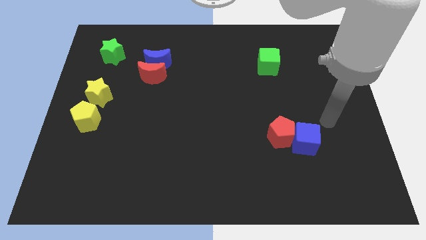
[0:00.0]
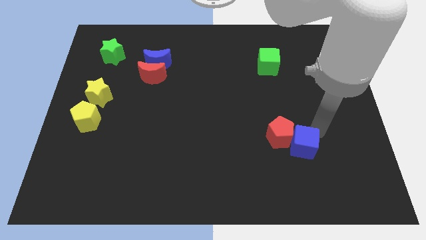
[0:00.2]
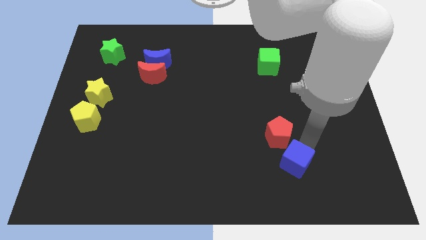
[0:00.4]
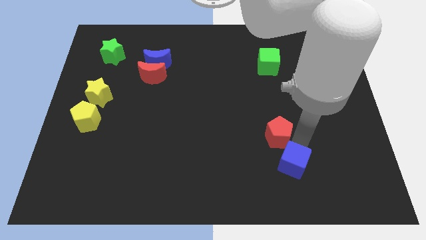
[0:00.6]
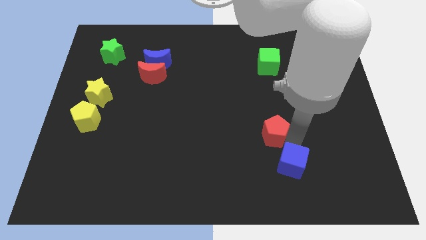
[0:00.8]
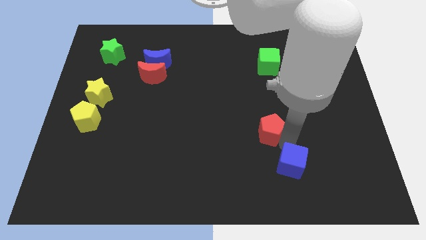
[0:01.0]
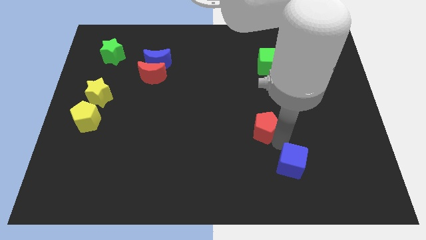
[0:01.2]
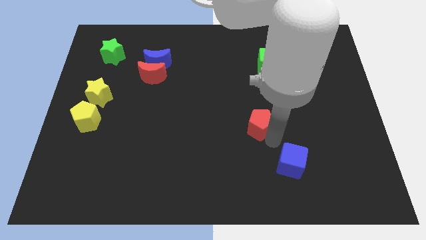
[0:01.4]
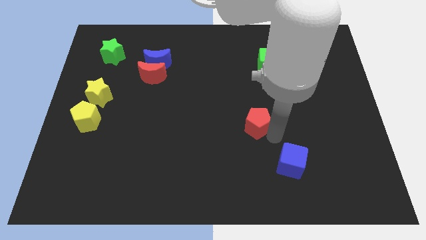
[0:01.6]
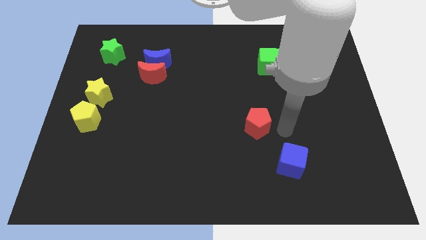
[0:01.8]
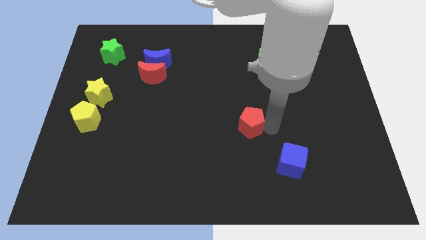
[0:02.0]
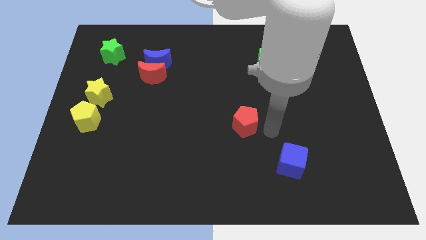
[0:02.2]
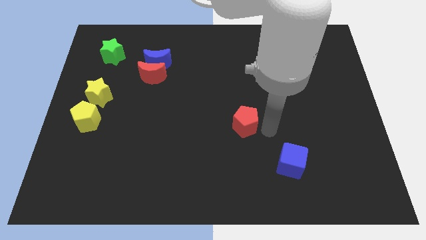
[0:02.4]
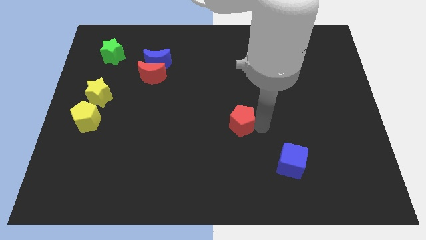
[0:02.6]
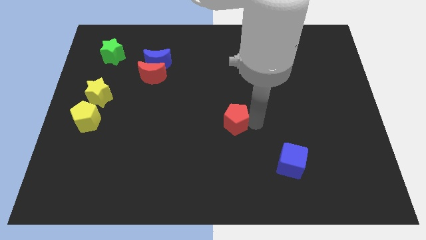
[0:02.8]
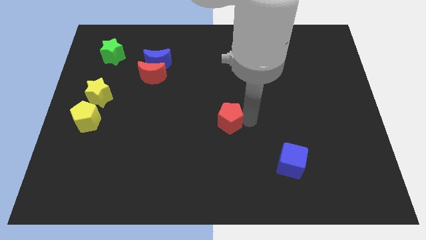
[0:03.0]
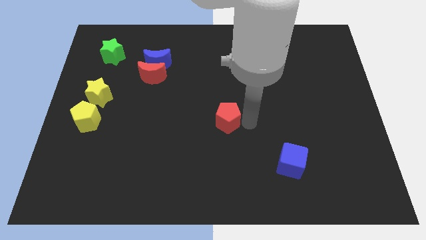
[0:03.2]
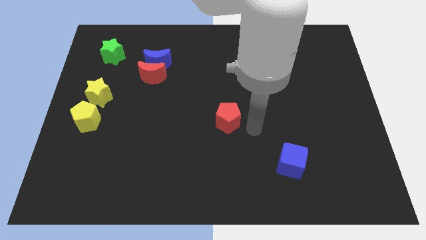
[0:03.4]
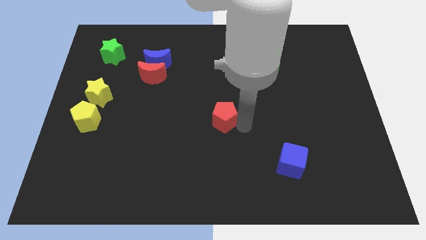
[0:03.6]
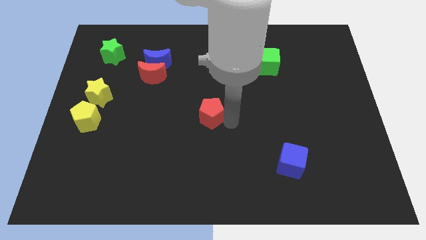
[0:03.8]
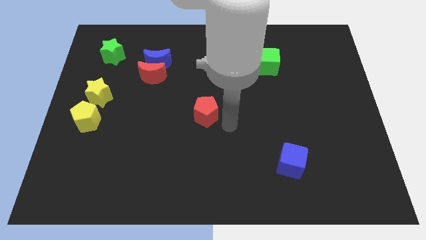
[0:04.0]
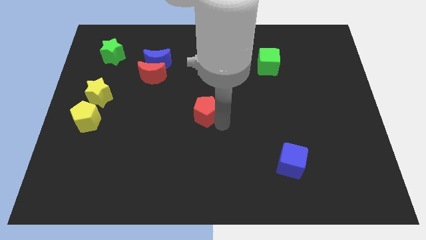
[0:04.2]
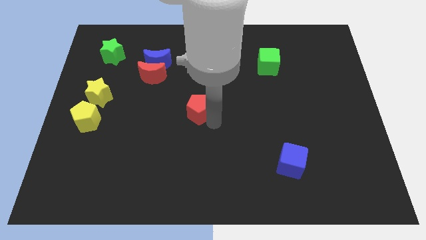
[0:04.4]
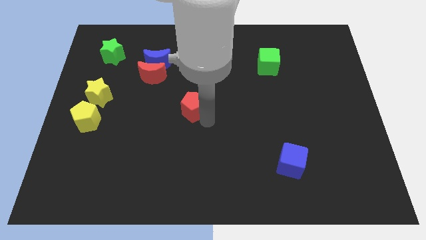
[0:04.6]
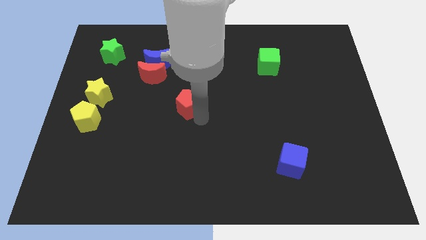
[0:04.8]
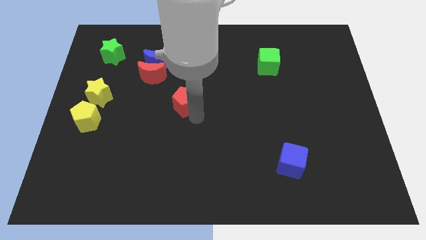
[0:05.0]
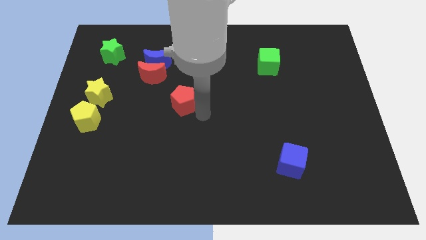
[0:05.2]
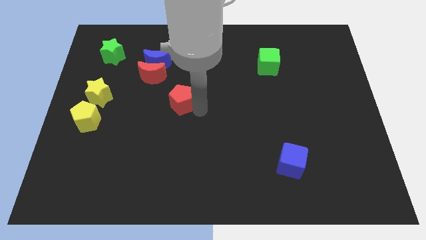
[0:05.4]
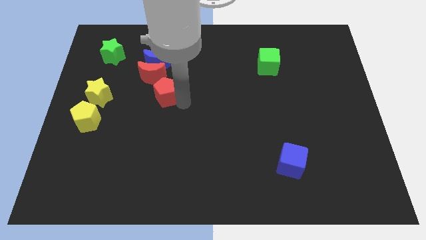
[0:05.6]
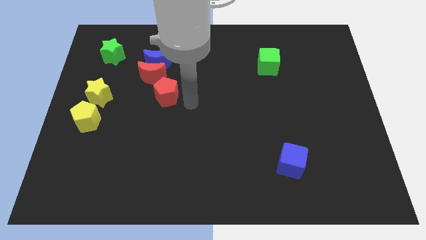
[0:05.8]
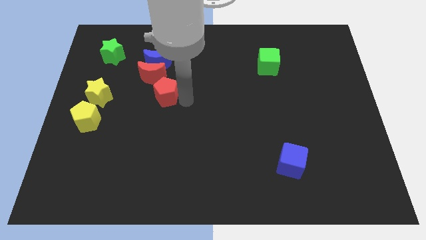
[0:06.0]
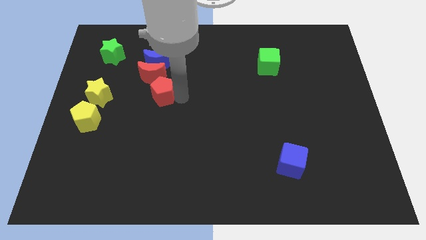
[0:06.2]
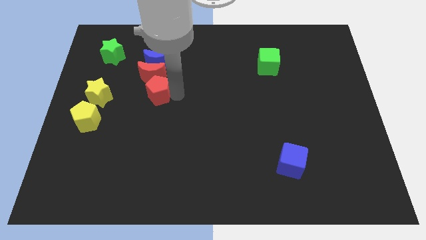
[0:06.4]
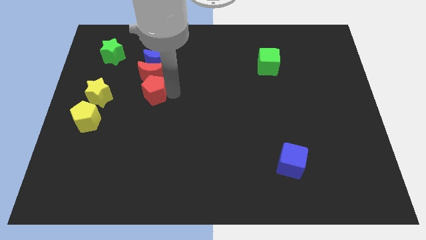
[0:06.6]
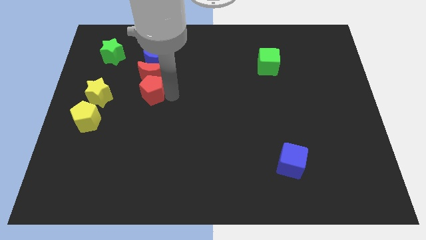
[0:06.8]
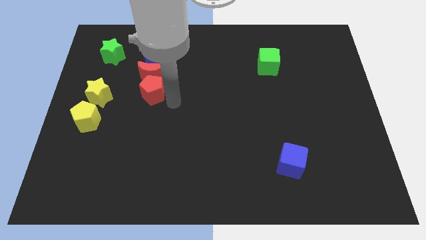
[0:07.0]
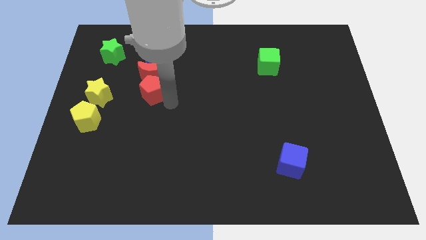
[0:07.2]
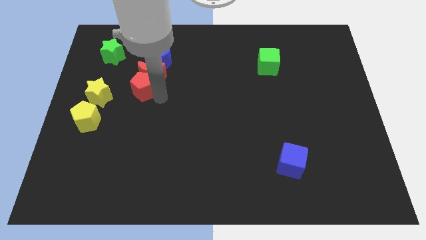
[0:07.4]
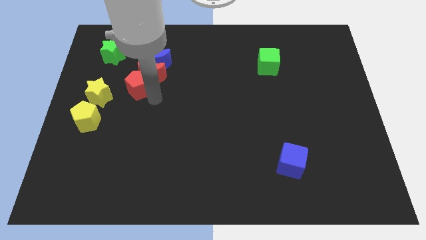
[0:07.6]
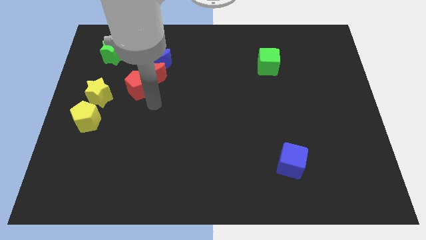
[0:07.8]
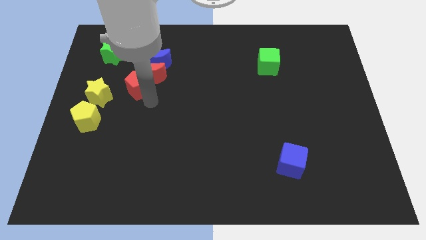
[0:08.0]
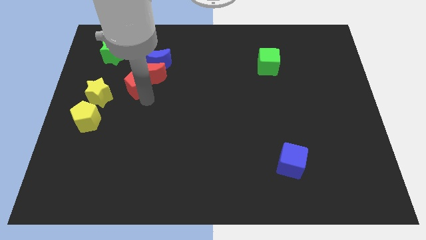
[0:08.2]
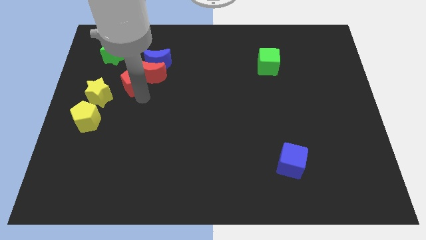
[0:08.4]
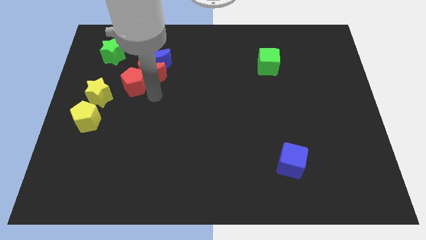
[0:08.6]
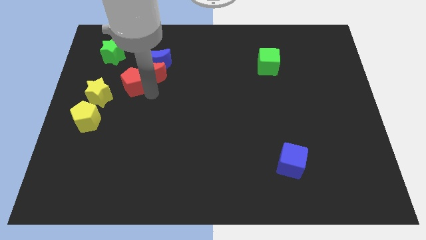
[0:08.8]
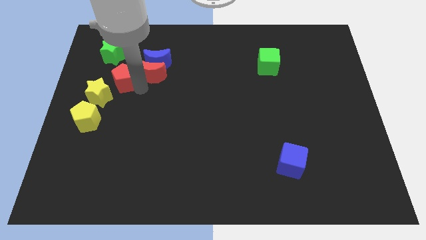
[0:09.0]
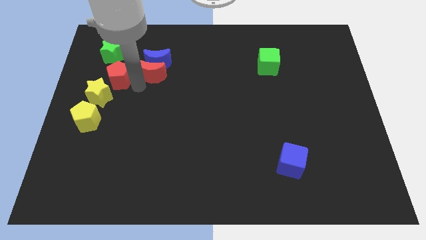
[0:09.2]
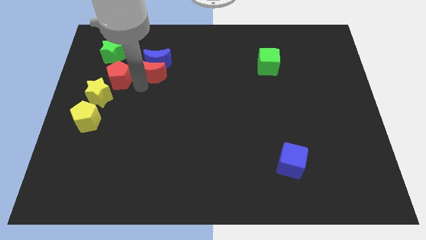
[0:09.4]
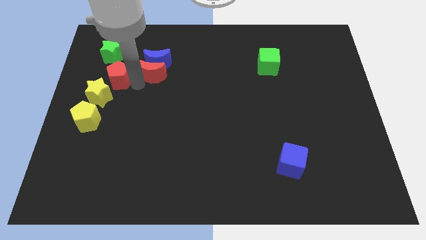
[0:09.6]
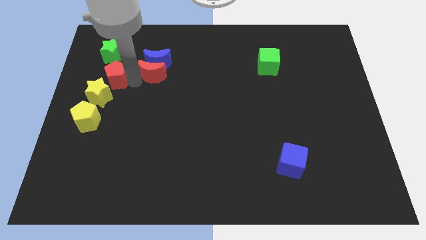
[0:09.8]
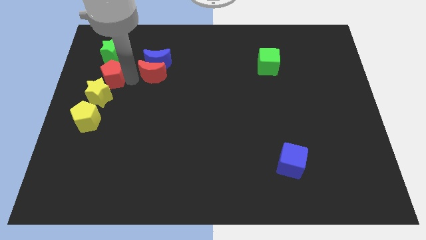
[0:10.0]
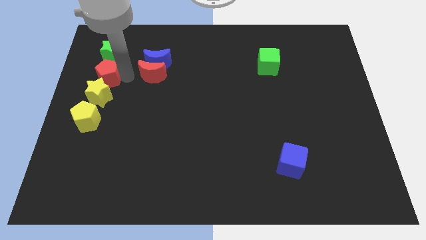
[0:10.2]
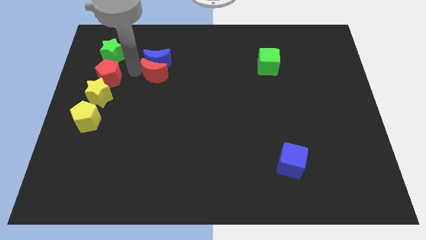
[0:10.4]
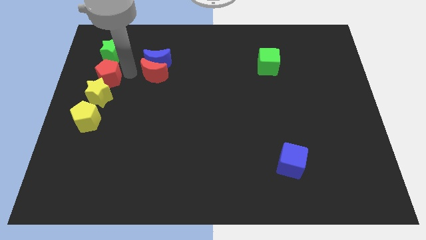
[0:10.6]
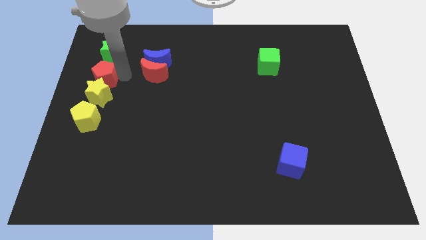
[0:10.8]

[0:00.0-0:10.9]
move the red pentagon to the left side

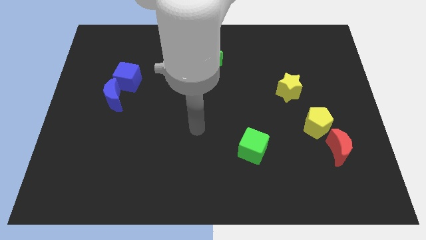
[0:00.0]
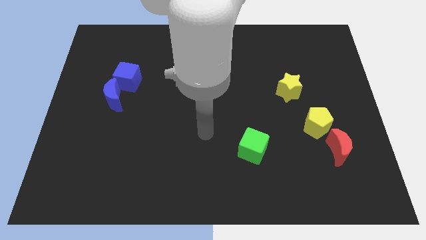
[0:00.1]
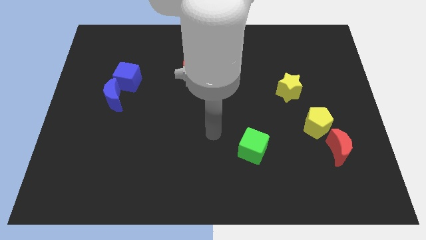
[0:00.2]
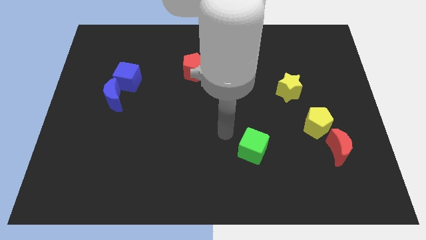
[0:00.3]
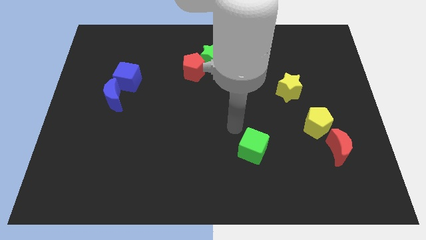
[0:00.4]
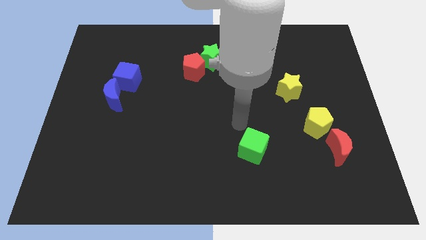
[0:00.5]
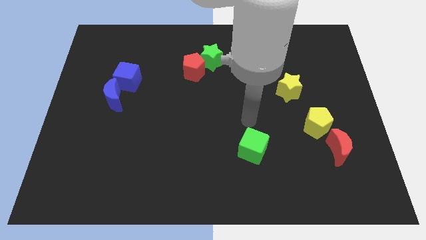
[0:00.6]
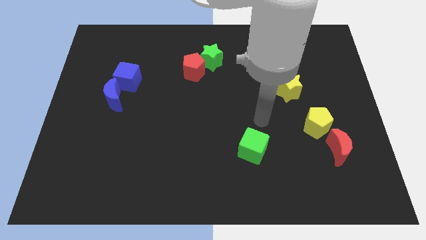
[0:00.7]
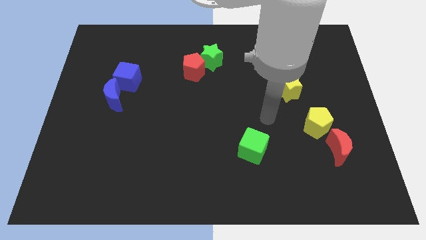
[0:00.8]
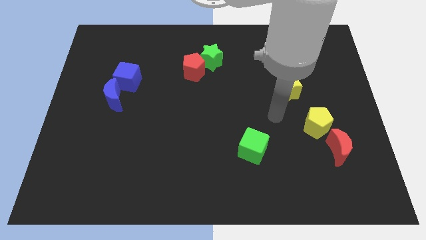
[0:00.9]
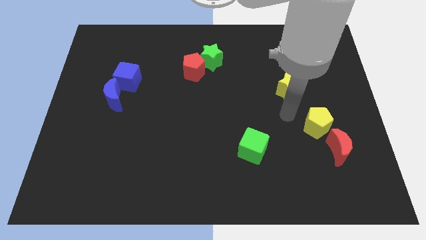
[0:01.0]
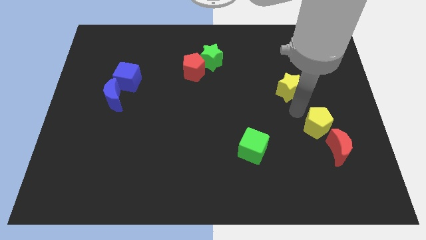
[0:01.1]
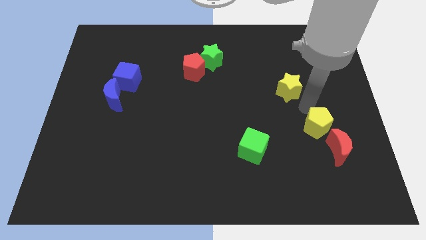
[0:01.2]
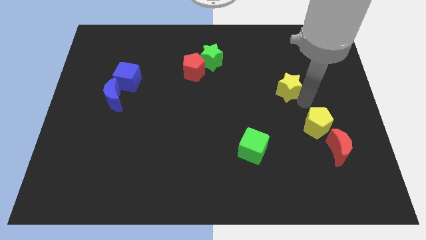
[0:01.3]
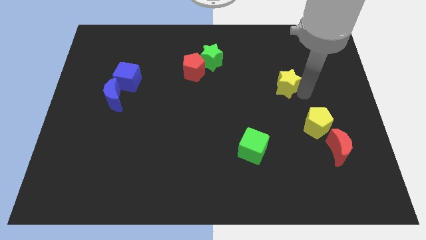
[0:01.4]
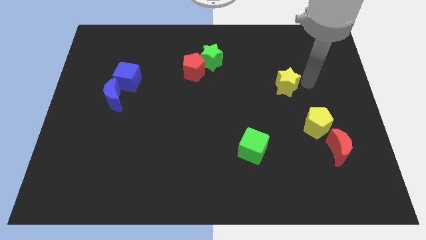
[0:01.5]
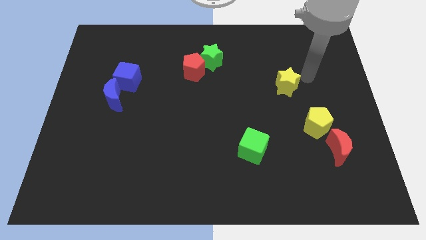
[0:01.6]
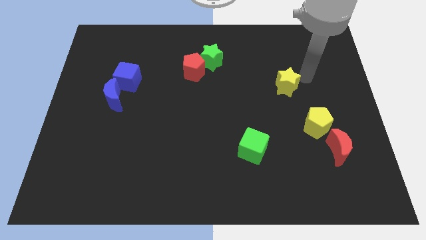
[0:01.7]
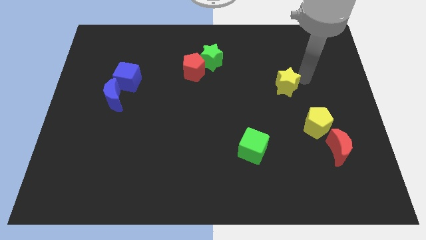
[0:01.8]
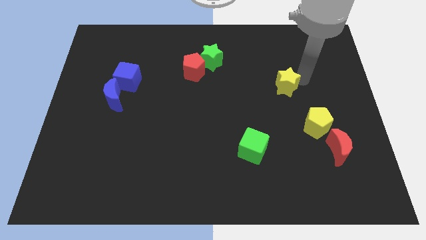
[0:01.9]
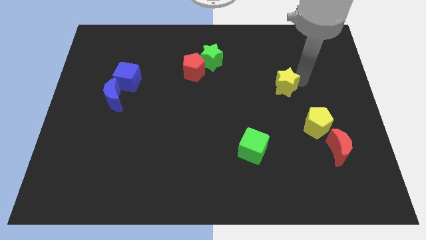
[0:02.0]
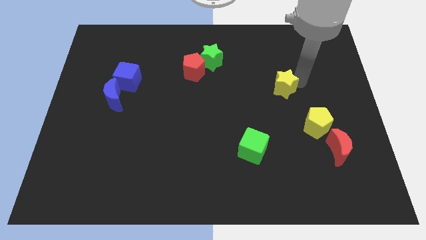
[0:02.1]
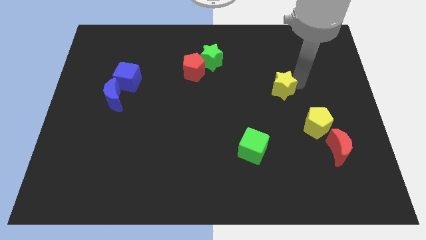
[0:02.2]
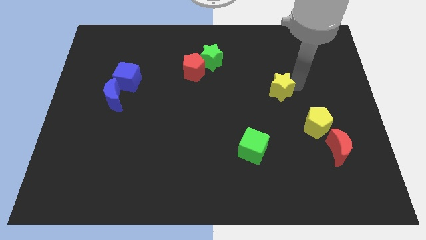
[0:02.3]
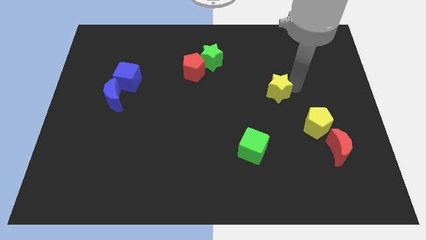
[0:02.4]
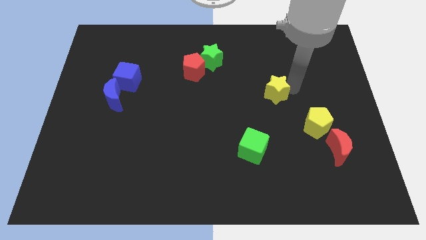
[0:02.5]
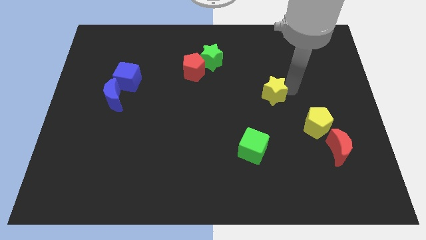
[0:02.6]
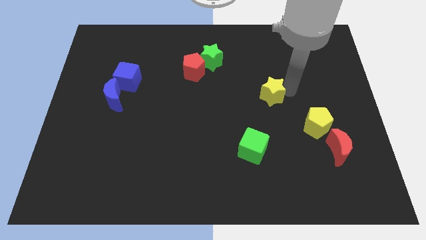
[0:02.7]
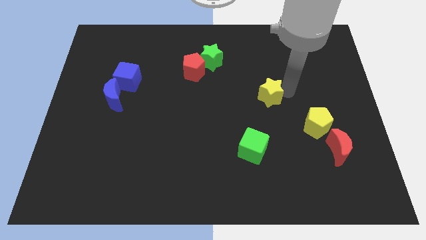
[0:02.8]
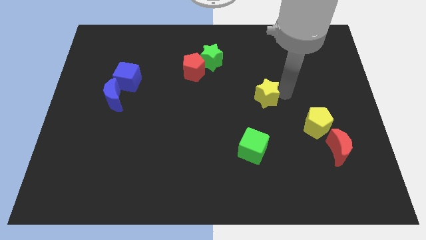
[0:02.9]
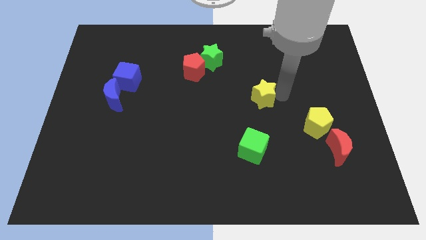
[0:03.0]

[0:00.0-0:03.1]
put the yellow star to the center of the board
